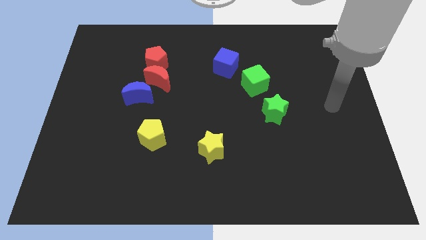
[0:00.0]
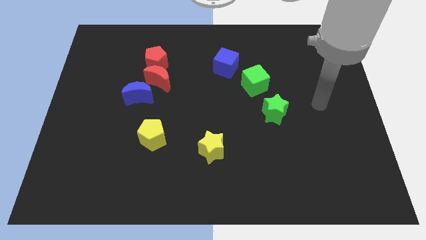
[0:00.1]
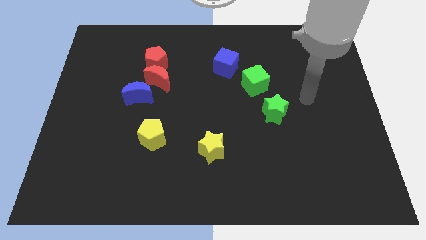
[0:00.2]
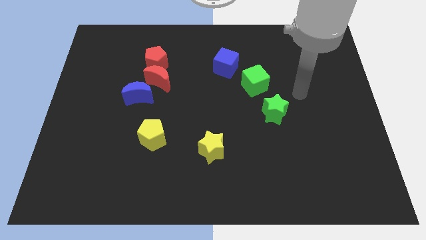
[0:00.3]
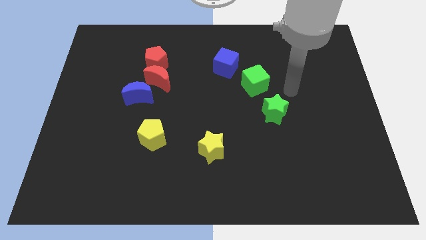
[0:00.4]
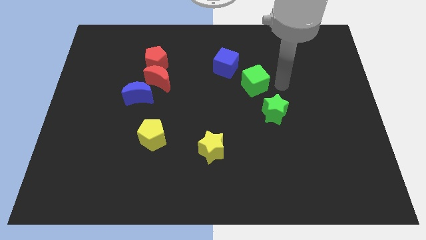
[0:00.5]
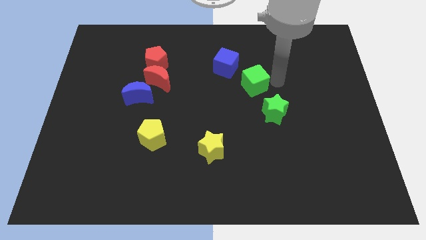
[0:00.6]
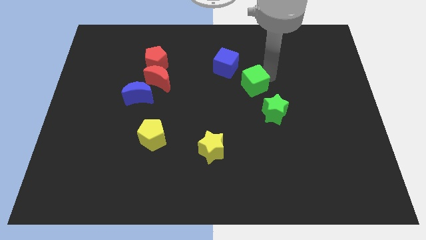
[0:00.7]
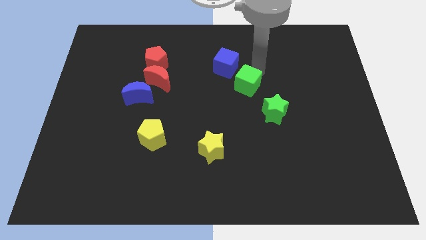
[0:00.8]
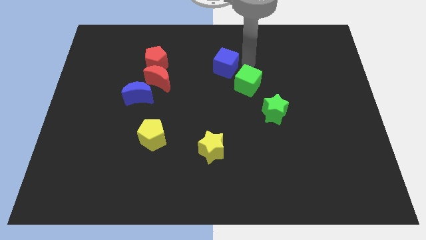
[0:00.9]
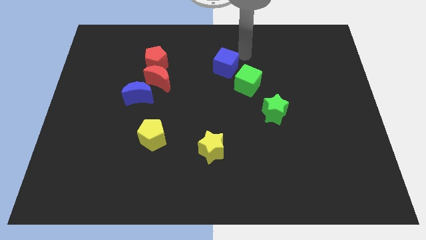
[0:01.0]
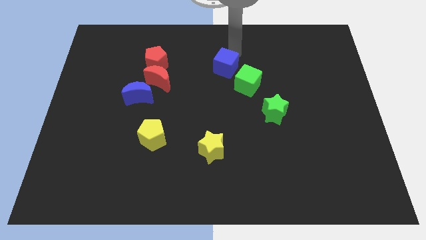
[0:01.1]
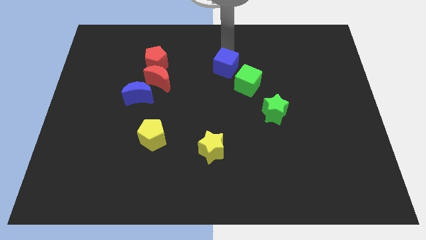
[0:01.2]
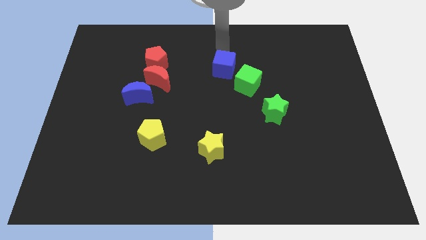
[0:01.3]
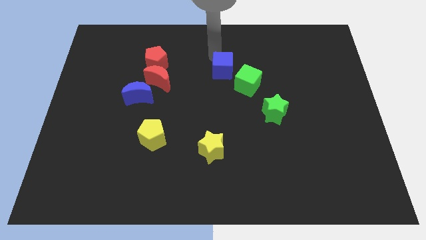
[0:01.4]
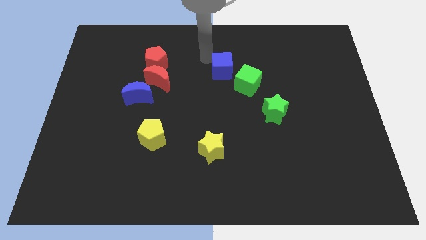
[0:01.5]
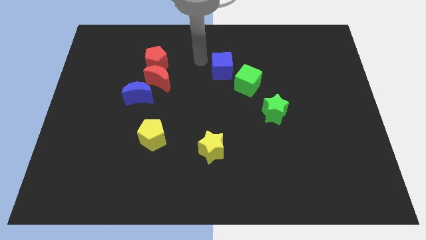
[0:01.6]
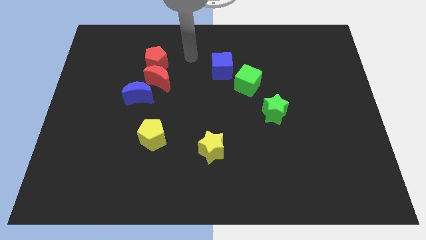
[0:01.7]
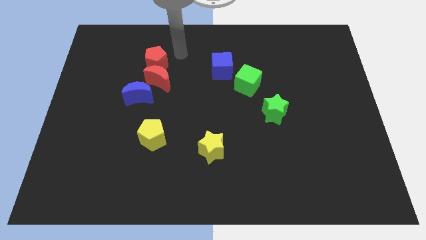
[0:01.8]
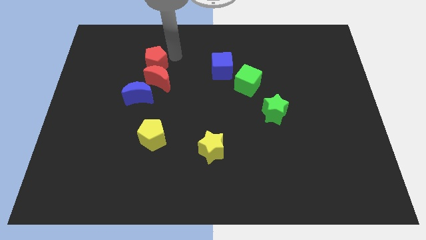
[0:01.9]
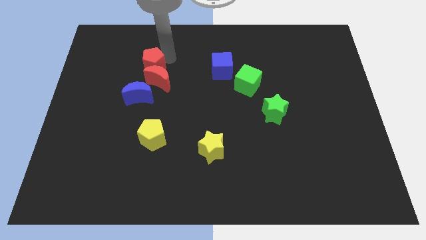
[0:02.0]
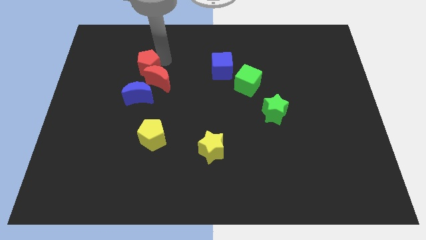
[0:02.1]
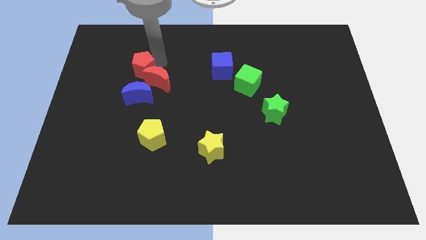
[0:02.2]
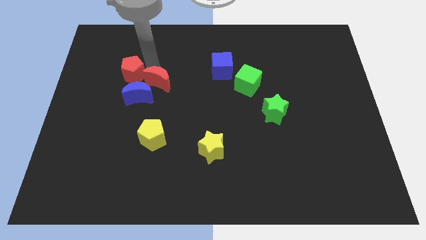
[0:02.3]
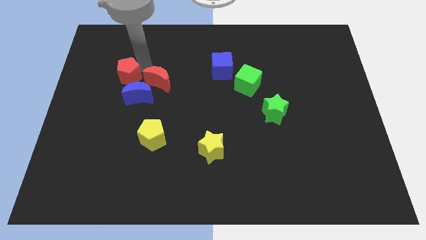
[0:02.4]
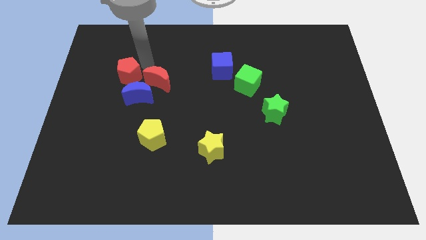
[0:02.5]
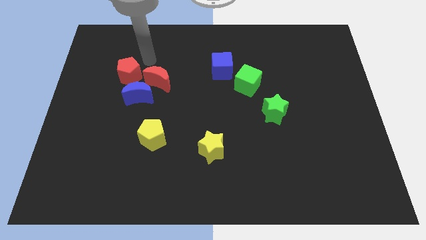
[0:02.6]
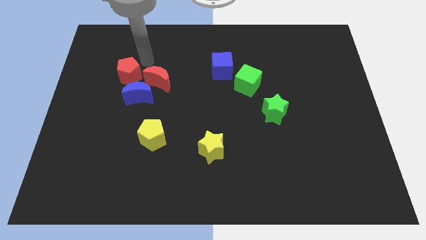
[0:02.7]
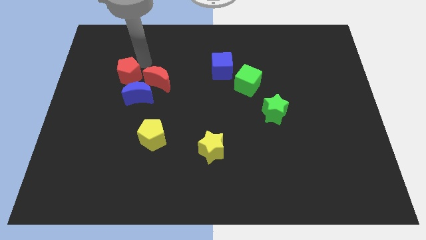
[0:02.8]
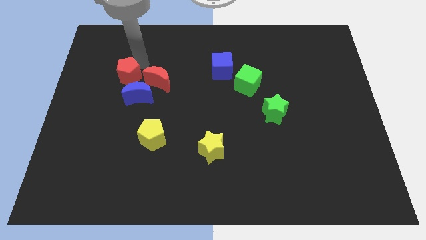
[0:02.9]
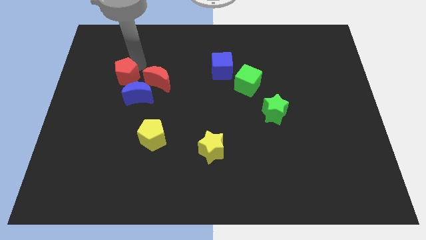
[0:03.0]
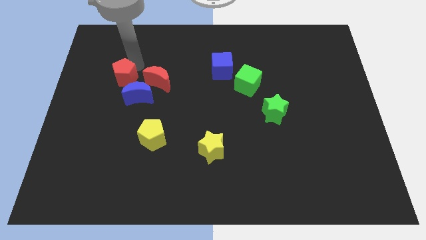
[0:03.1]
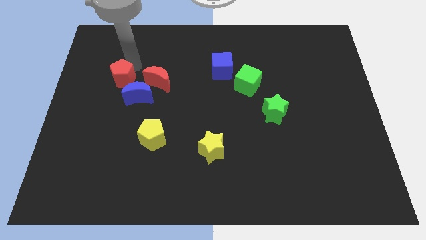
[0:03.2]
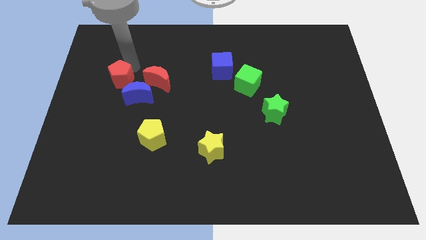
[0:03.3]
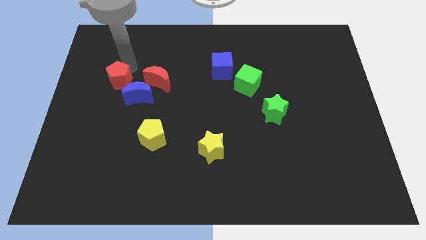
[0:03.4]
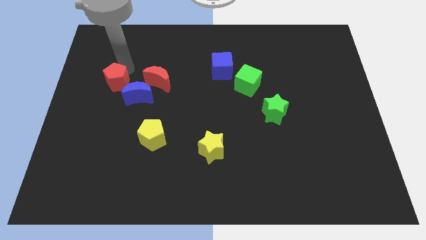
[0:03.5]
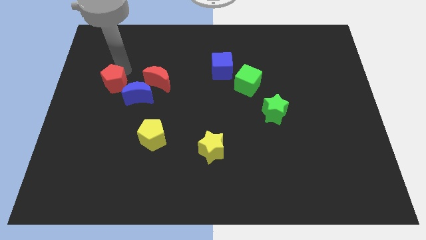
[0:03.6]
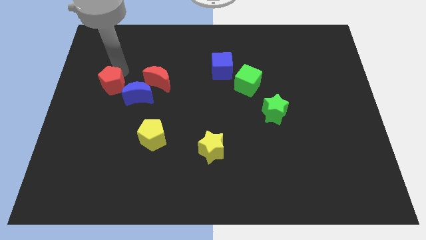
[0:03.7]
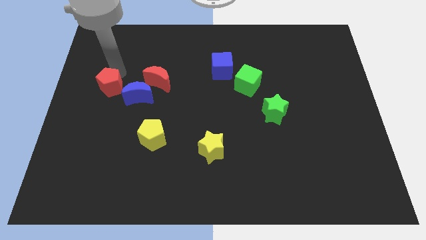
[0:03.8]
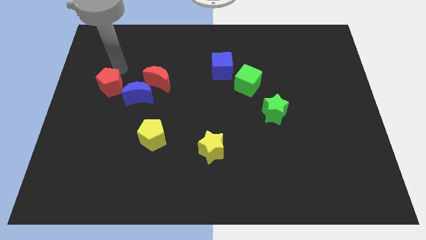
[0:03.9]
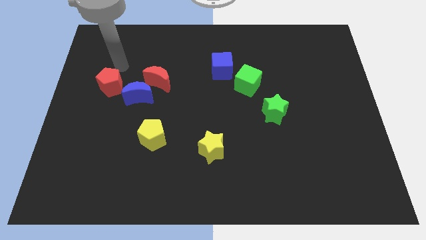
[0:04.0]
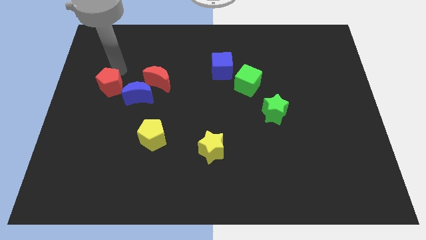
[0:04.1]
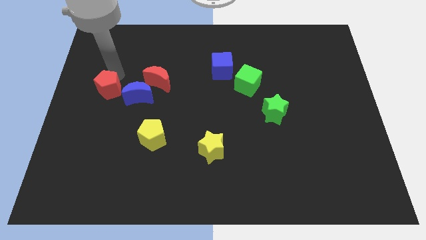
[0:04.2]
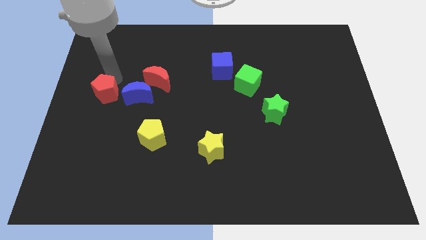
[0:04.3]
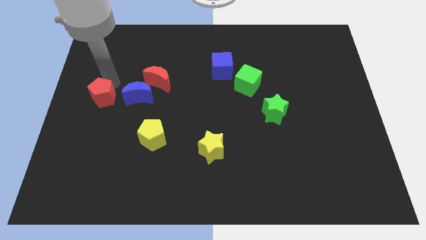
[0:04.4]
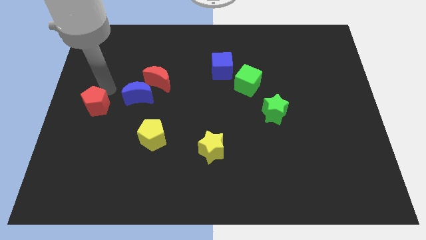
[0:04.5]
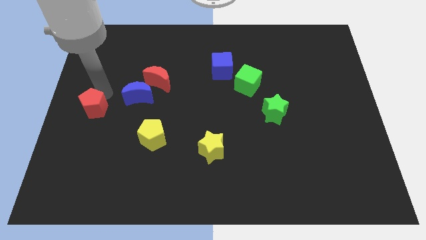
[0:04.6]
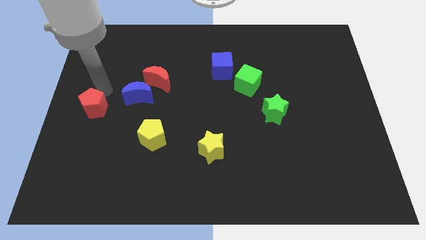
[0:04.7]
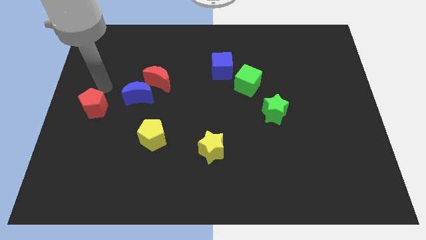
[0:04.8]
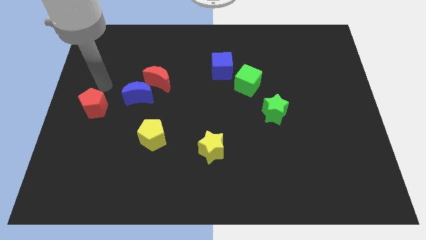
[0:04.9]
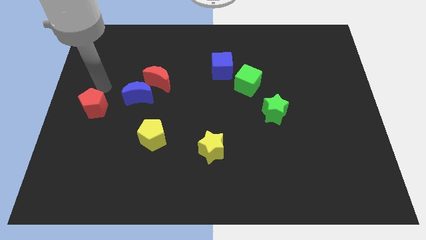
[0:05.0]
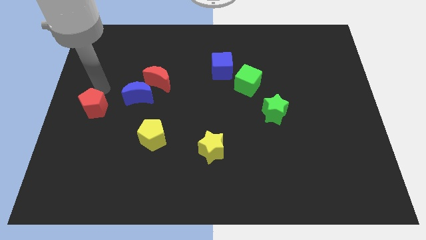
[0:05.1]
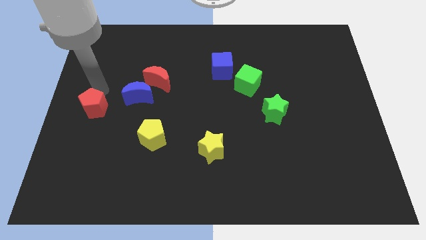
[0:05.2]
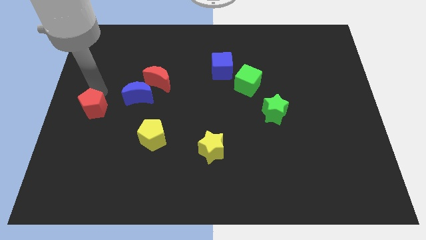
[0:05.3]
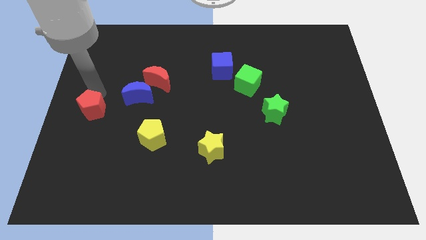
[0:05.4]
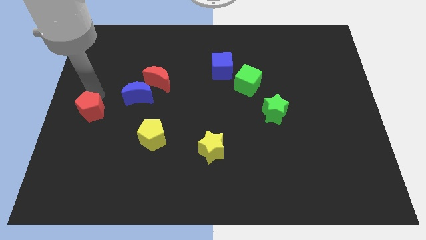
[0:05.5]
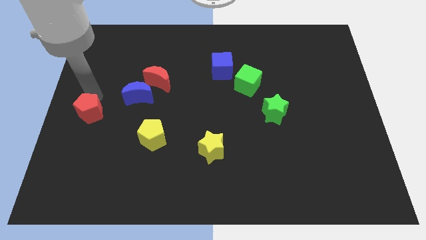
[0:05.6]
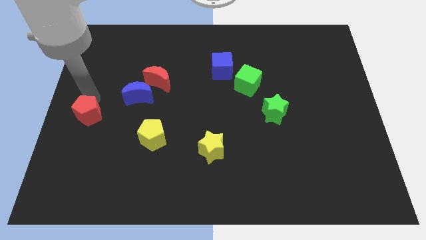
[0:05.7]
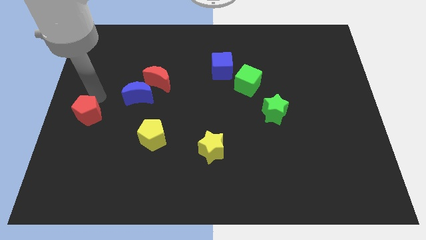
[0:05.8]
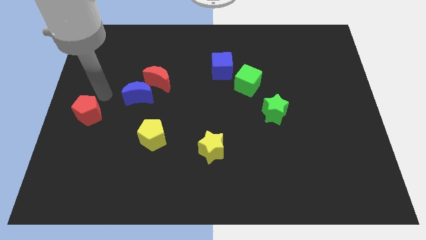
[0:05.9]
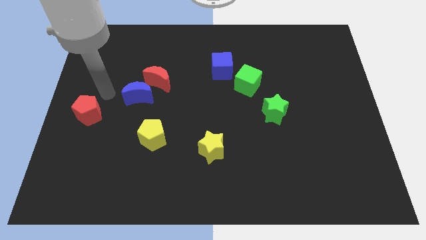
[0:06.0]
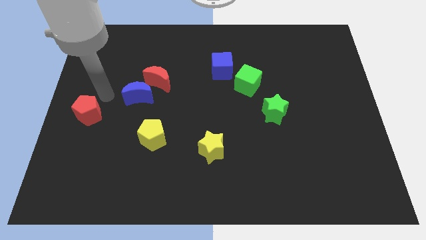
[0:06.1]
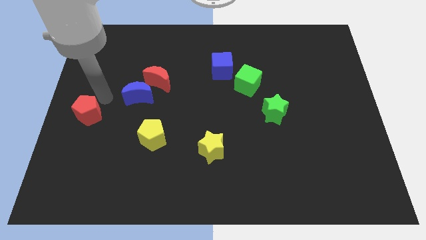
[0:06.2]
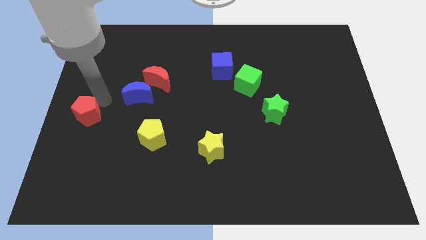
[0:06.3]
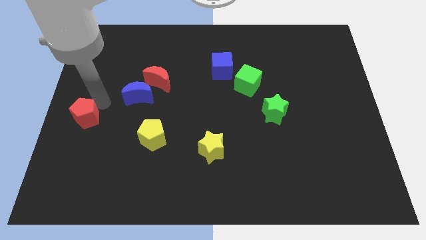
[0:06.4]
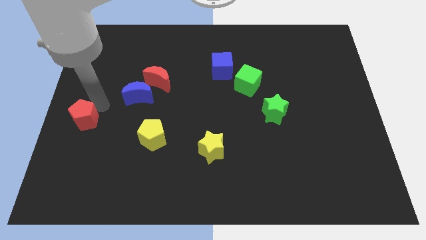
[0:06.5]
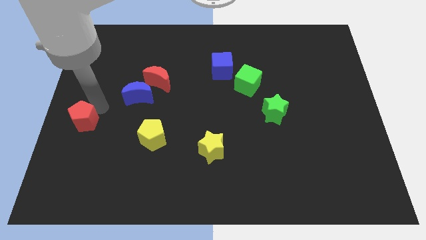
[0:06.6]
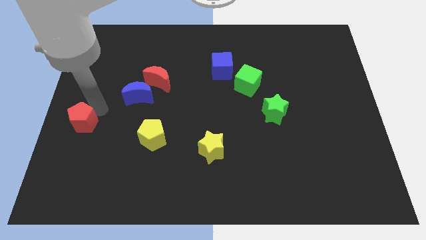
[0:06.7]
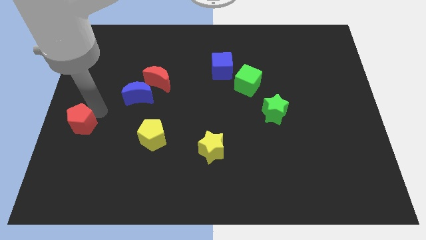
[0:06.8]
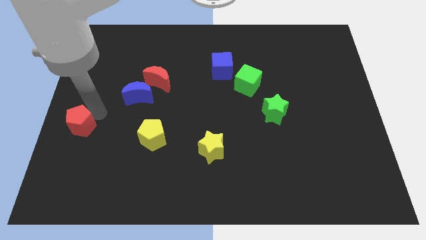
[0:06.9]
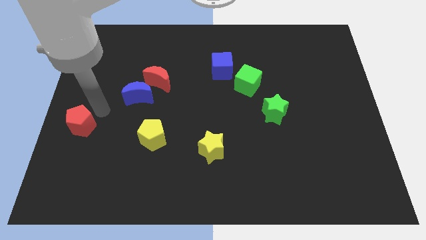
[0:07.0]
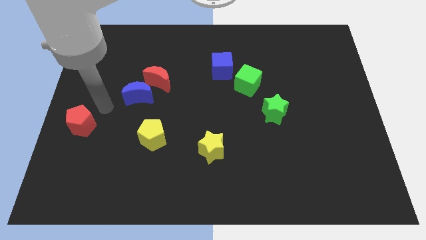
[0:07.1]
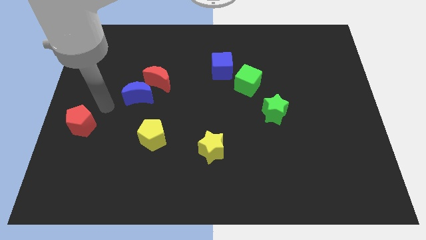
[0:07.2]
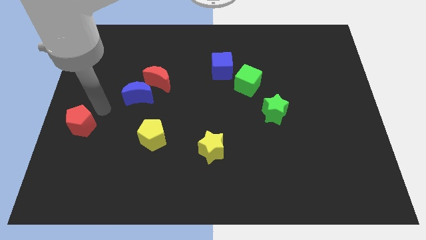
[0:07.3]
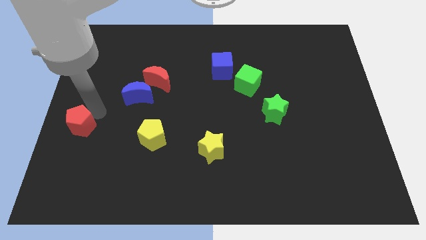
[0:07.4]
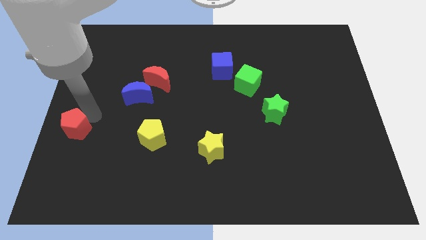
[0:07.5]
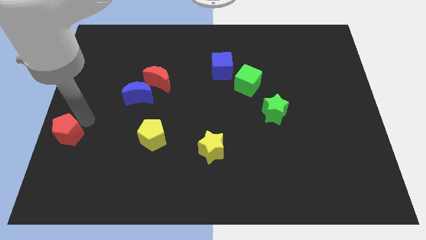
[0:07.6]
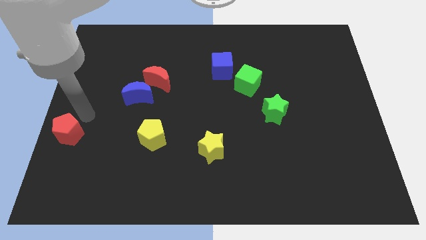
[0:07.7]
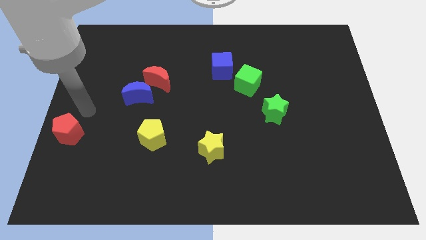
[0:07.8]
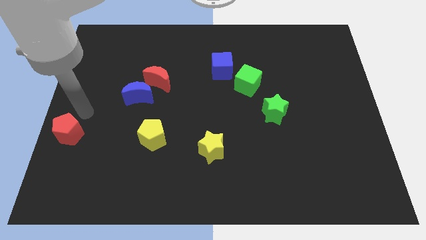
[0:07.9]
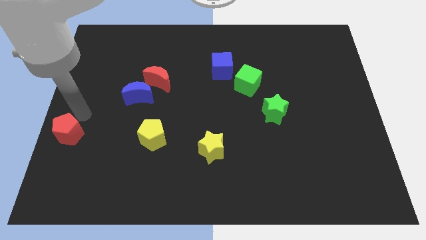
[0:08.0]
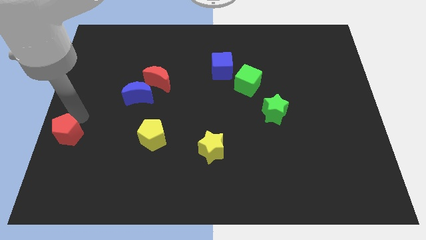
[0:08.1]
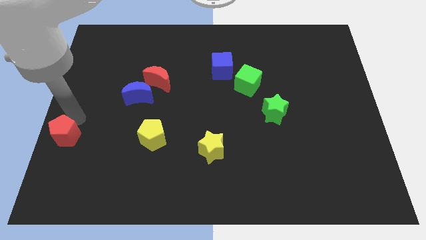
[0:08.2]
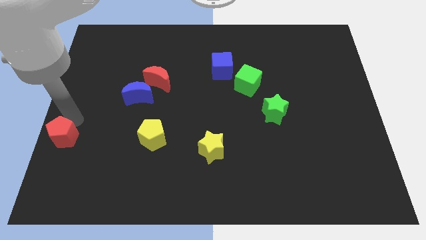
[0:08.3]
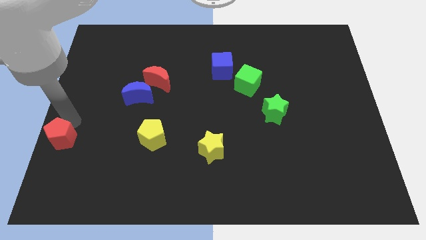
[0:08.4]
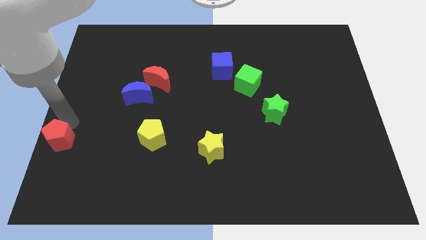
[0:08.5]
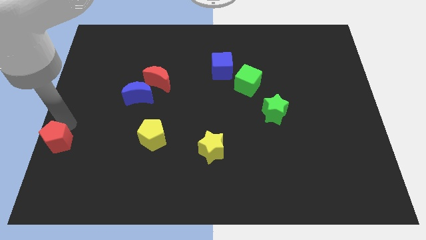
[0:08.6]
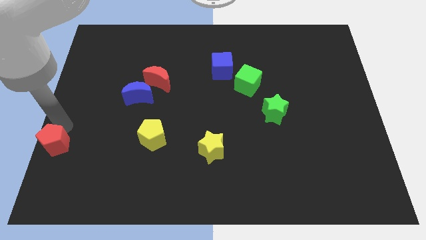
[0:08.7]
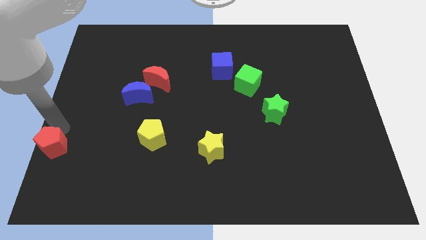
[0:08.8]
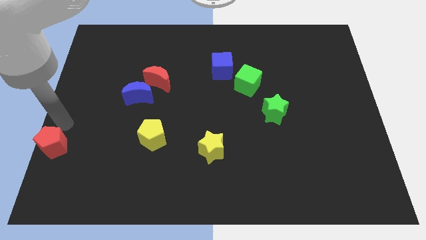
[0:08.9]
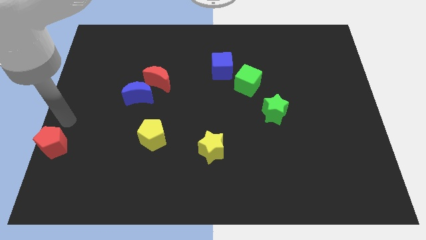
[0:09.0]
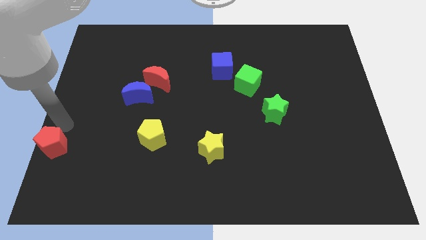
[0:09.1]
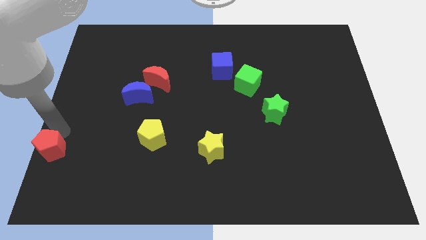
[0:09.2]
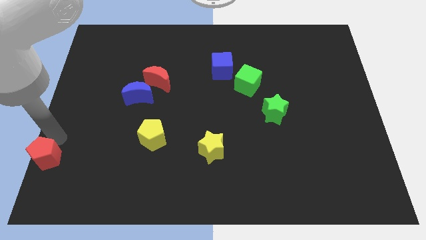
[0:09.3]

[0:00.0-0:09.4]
slide the red pentagon to the bottom left
